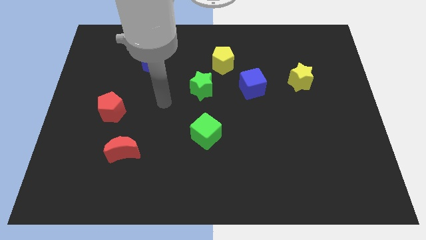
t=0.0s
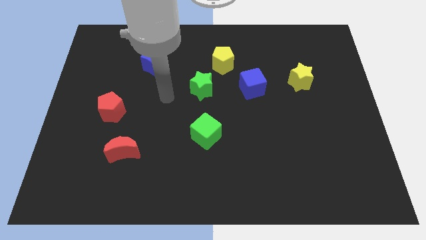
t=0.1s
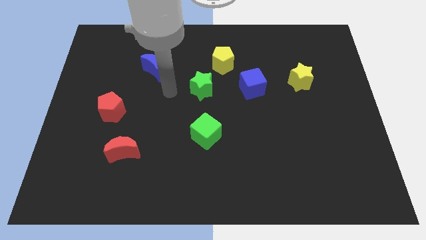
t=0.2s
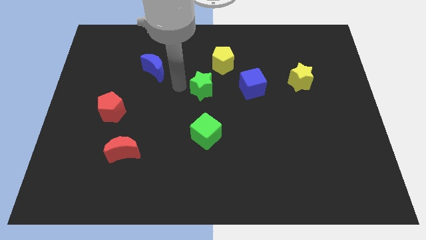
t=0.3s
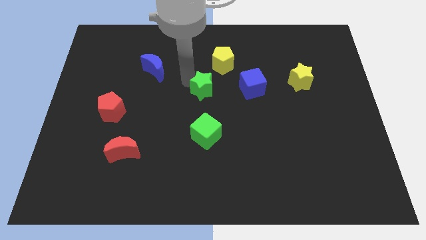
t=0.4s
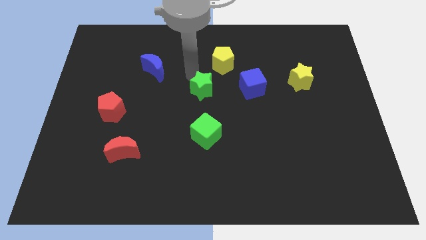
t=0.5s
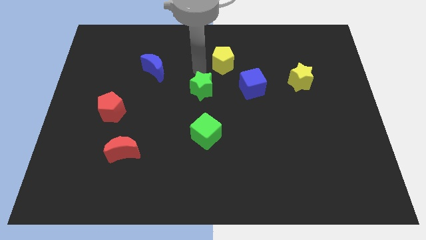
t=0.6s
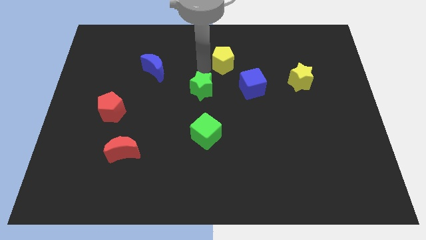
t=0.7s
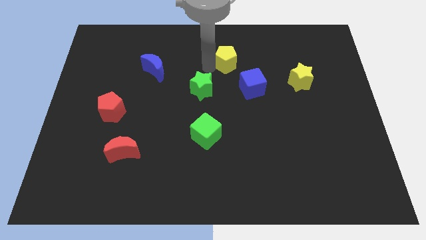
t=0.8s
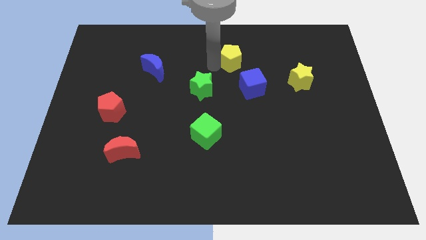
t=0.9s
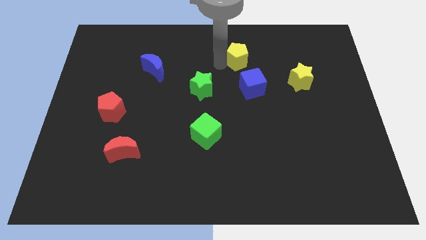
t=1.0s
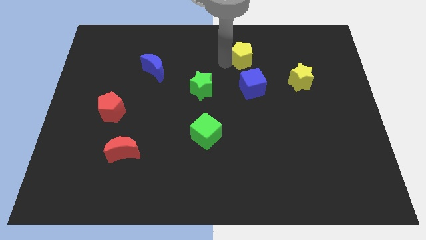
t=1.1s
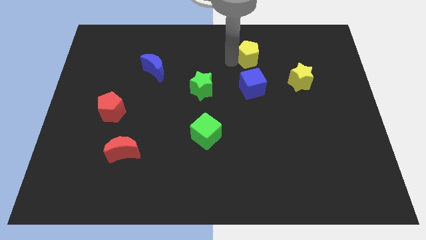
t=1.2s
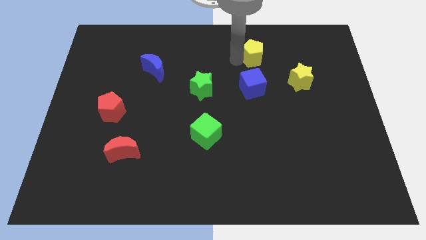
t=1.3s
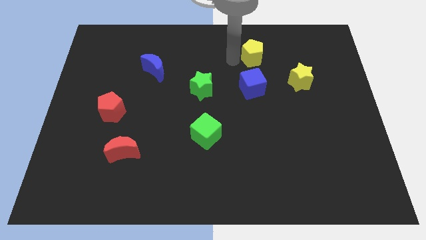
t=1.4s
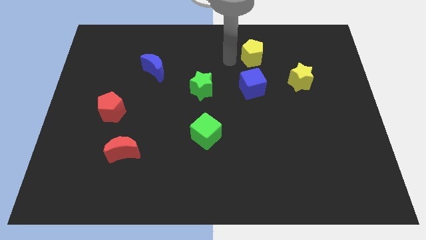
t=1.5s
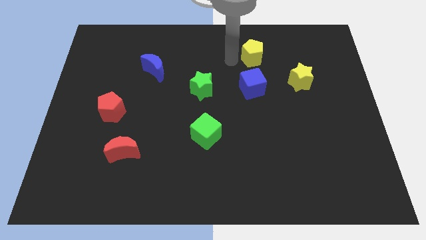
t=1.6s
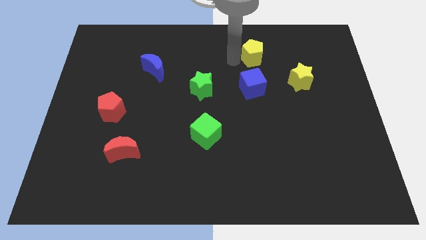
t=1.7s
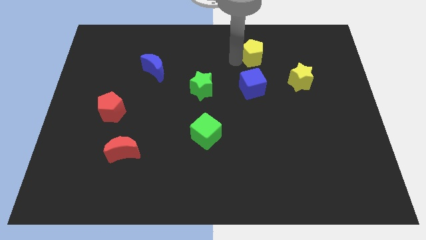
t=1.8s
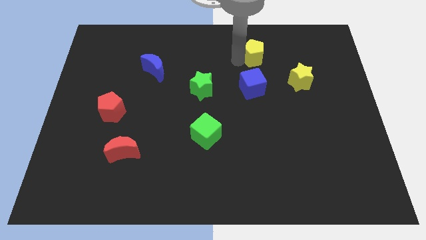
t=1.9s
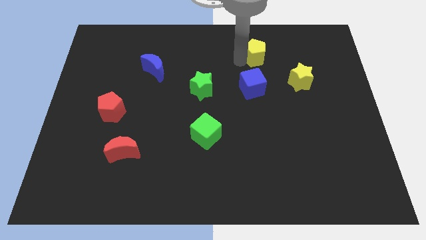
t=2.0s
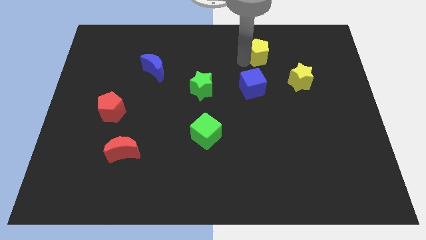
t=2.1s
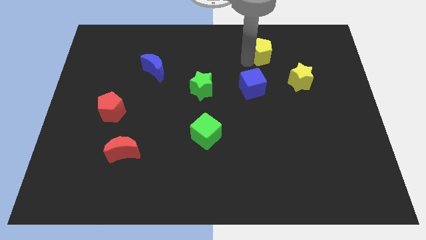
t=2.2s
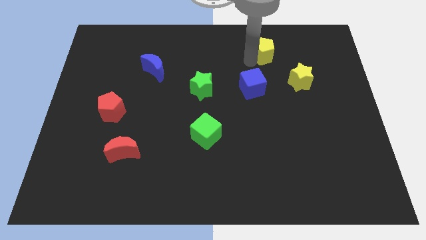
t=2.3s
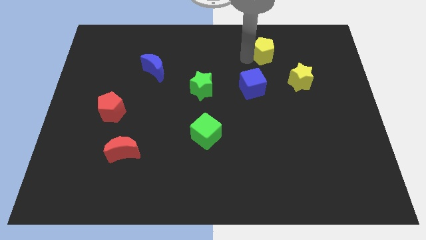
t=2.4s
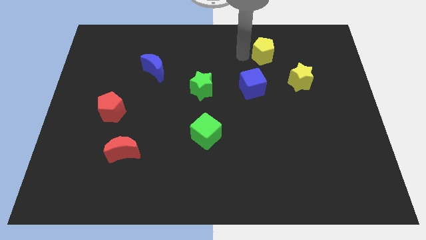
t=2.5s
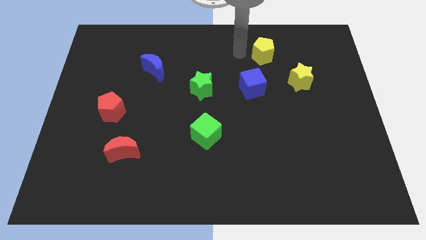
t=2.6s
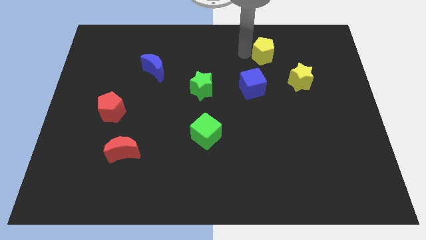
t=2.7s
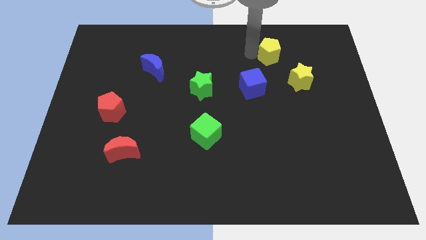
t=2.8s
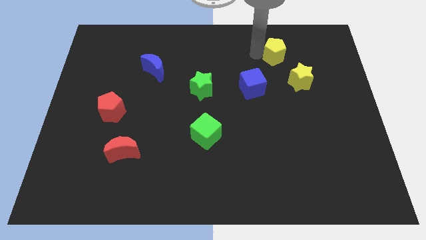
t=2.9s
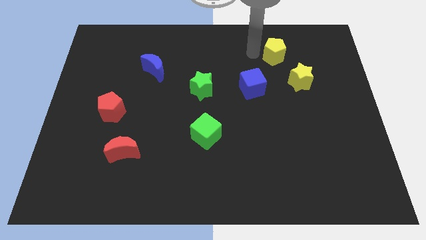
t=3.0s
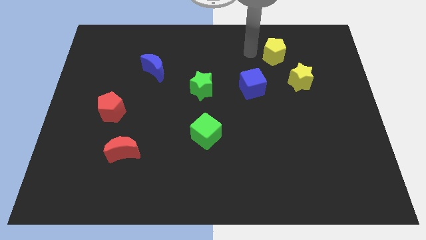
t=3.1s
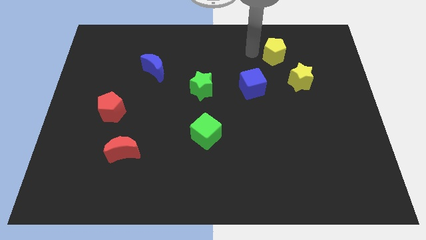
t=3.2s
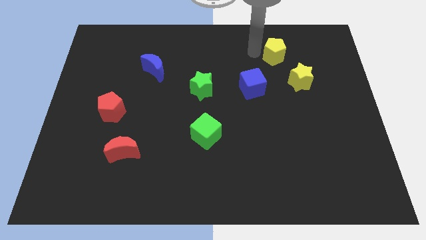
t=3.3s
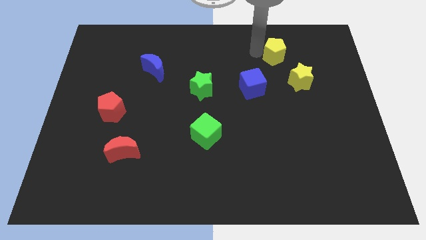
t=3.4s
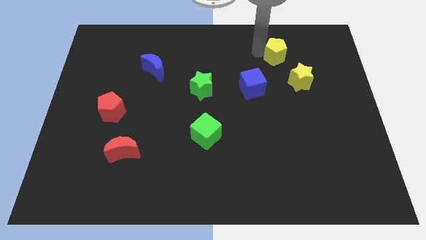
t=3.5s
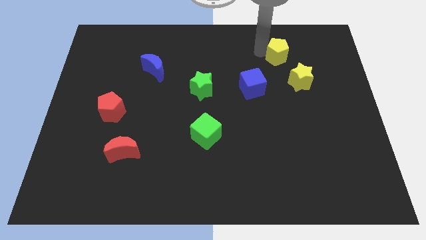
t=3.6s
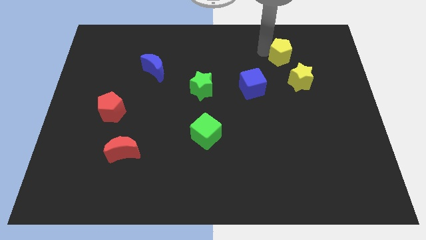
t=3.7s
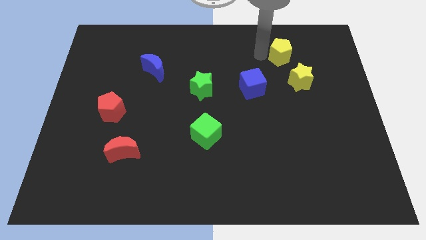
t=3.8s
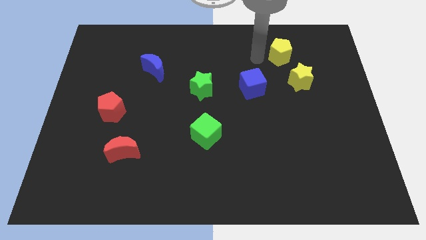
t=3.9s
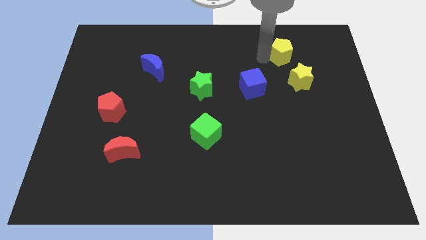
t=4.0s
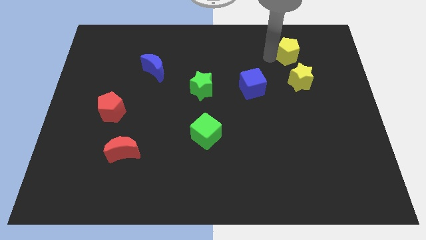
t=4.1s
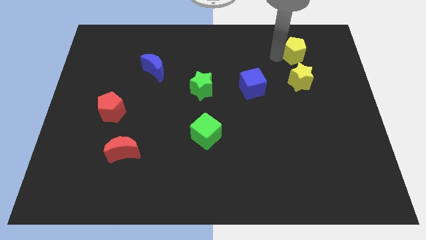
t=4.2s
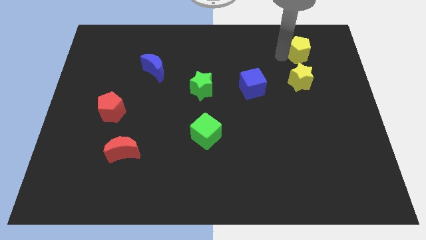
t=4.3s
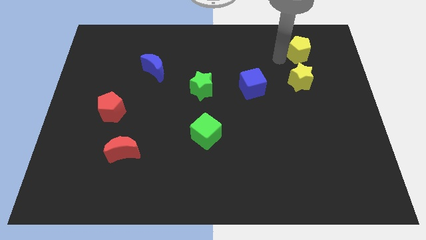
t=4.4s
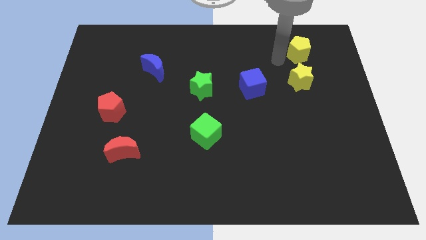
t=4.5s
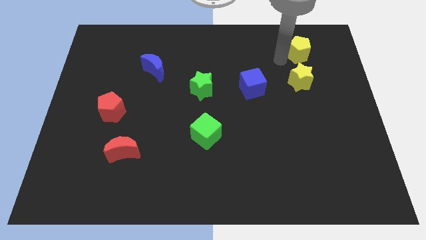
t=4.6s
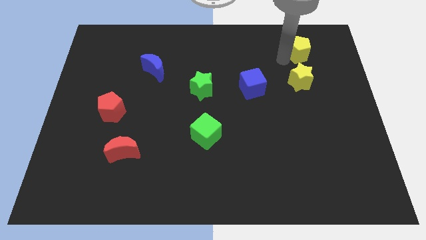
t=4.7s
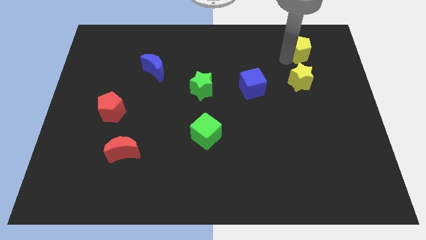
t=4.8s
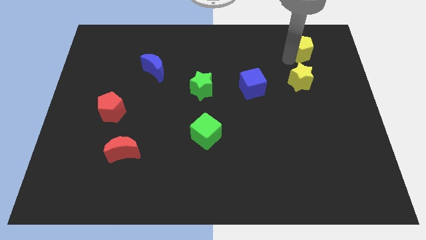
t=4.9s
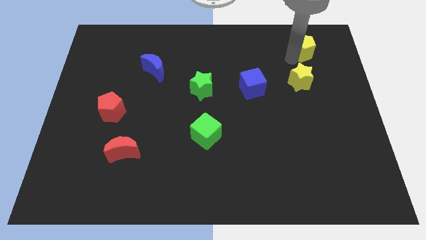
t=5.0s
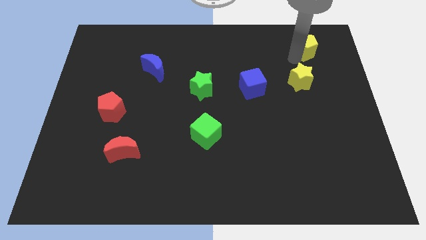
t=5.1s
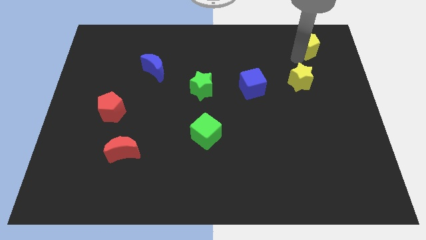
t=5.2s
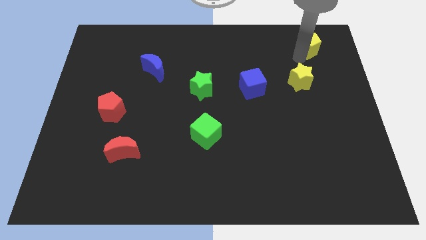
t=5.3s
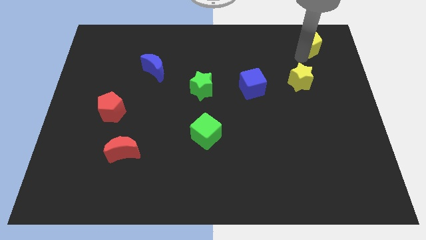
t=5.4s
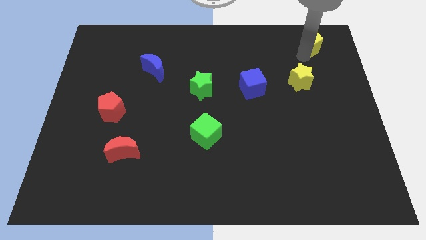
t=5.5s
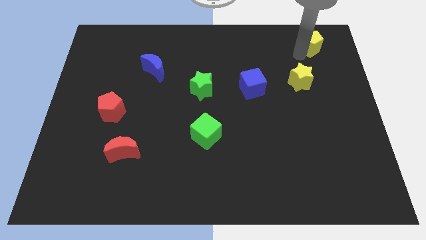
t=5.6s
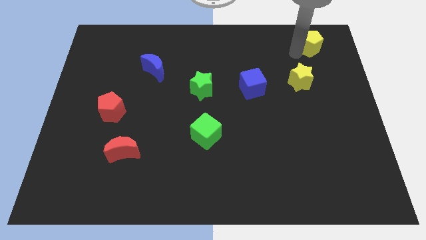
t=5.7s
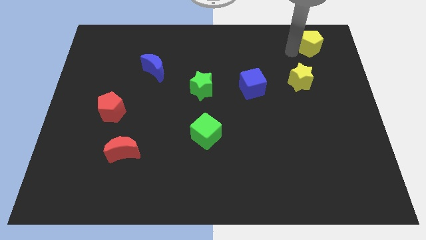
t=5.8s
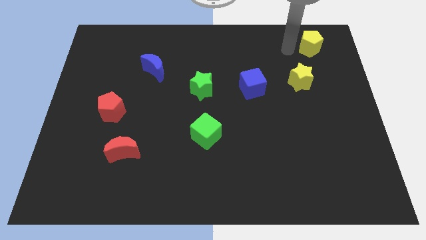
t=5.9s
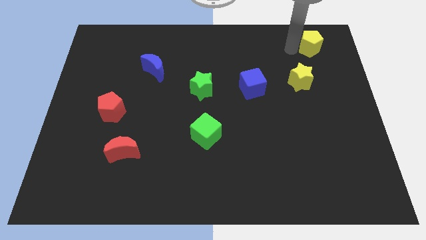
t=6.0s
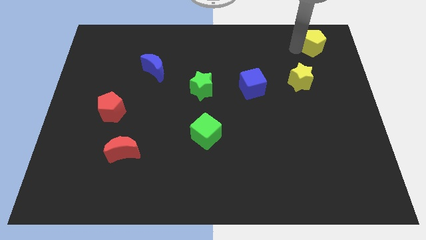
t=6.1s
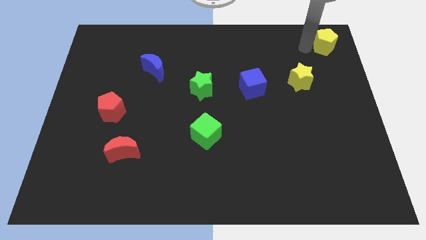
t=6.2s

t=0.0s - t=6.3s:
move the yellow pentagon to the upper right corner

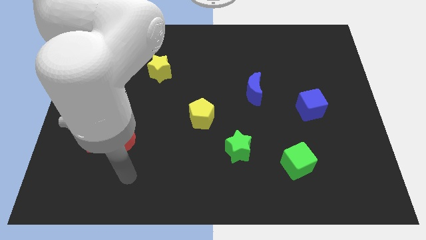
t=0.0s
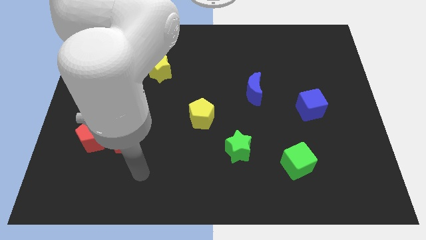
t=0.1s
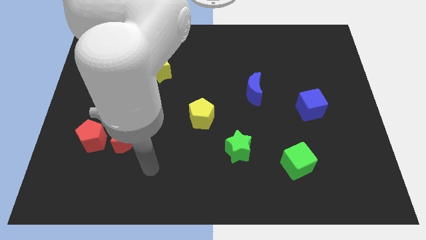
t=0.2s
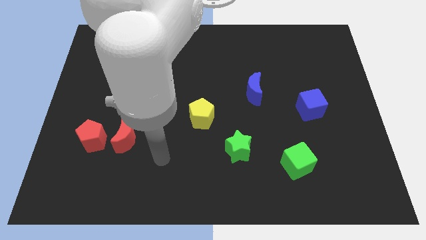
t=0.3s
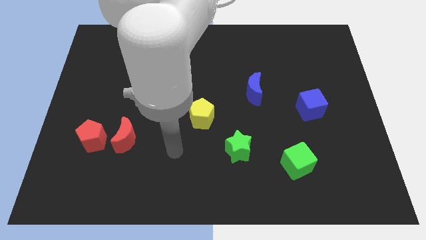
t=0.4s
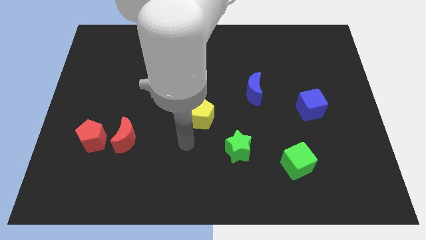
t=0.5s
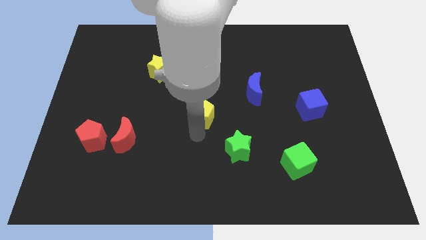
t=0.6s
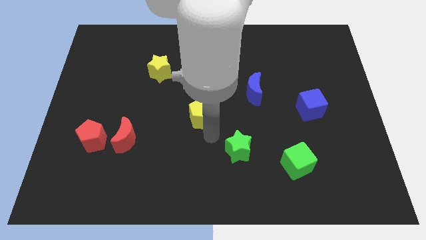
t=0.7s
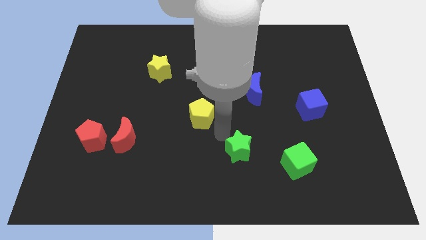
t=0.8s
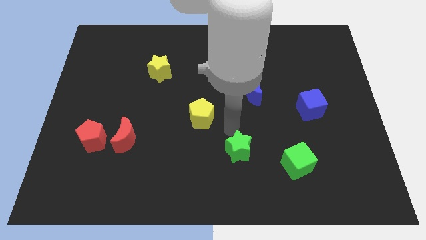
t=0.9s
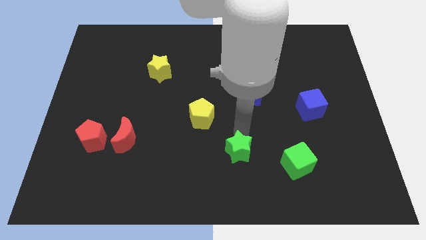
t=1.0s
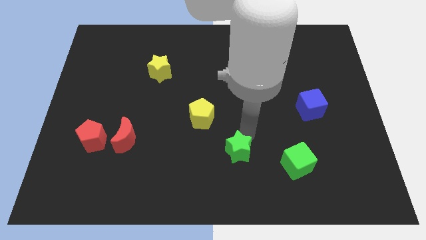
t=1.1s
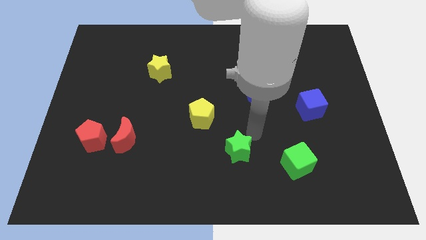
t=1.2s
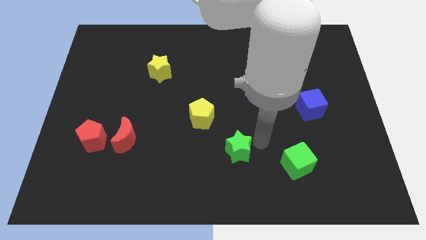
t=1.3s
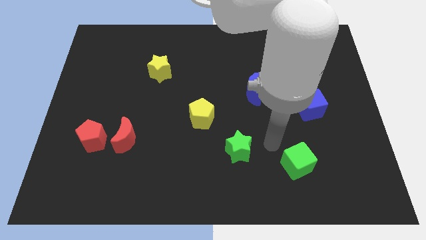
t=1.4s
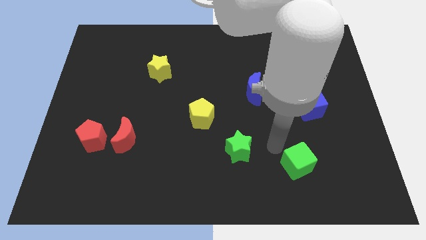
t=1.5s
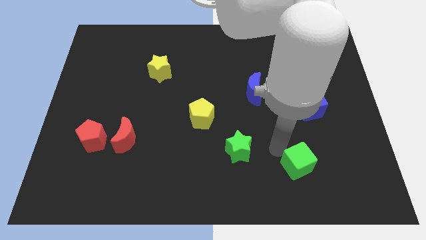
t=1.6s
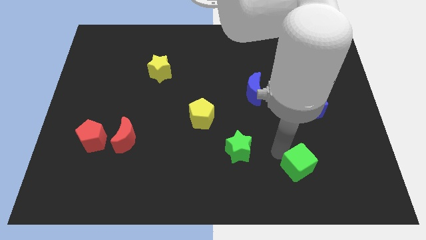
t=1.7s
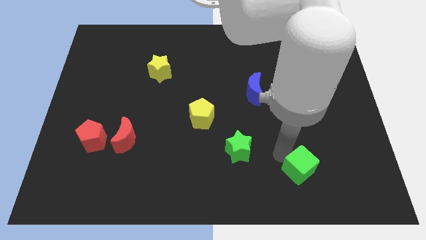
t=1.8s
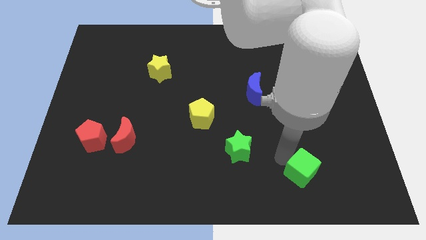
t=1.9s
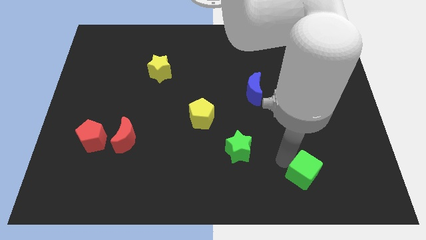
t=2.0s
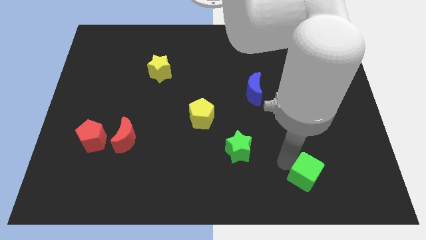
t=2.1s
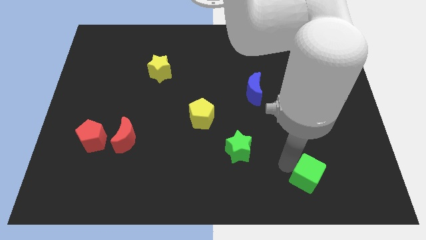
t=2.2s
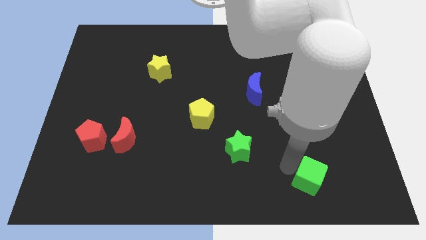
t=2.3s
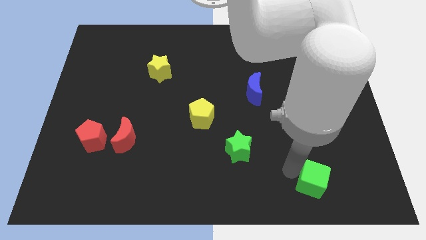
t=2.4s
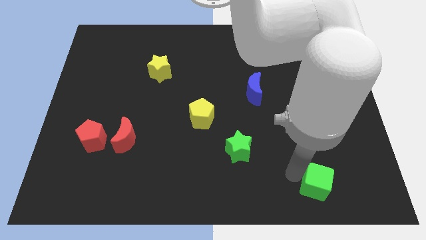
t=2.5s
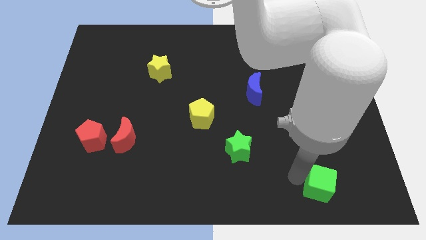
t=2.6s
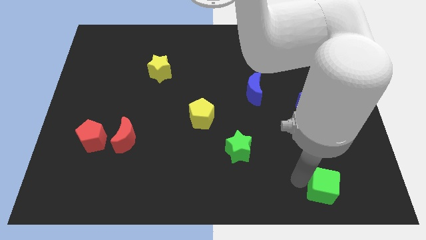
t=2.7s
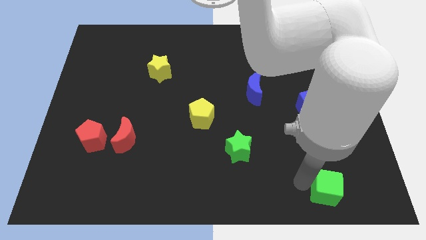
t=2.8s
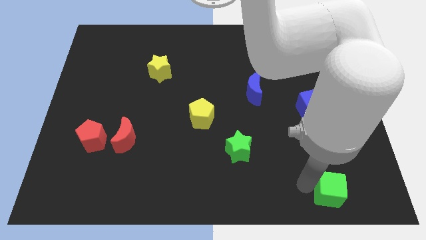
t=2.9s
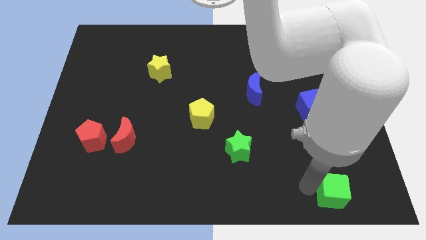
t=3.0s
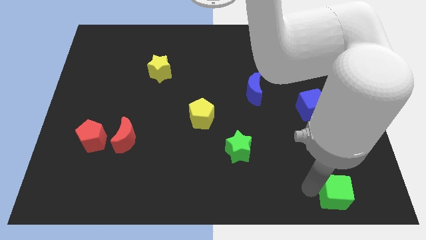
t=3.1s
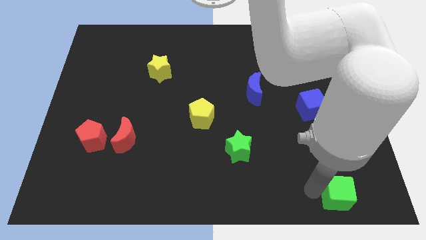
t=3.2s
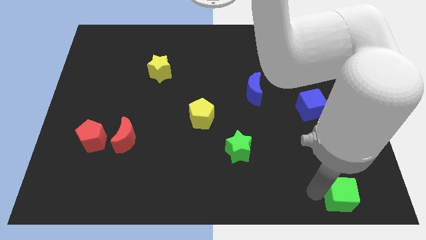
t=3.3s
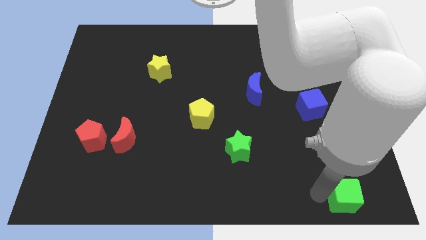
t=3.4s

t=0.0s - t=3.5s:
slide the green cube to the bottom right of the board
